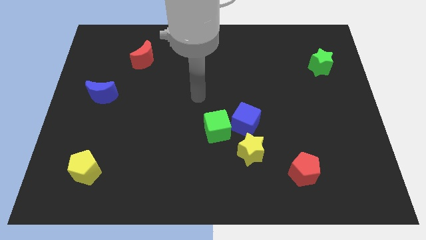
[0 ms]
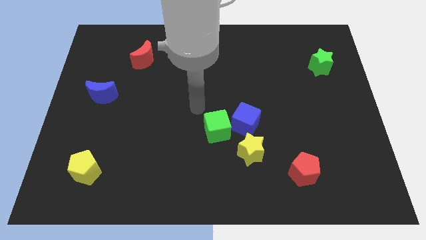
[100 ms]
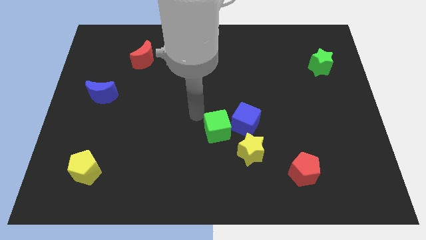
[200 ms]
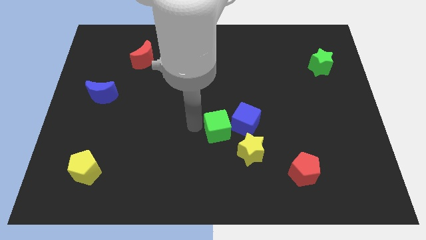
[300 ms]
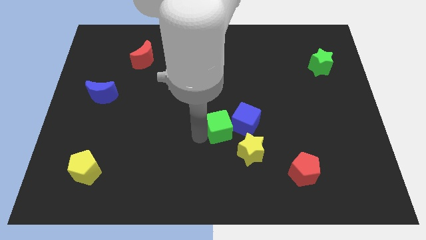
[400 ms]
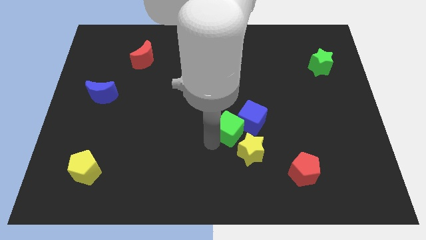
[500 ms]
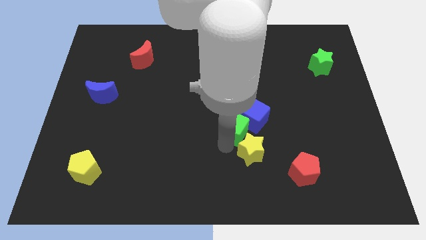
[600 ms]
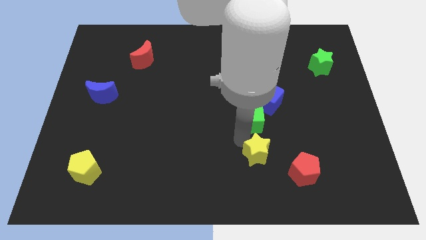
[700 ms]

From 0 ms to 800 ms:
separate the blue cube from the green cube and yellow star

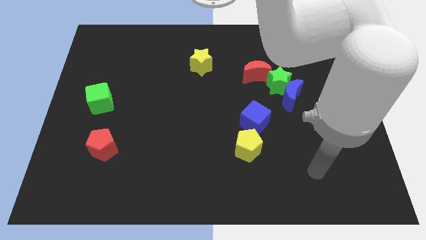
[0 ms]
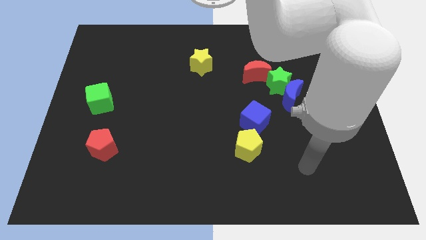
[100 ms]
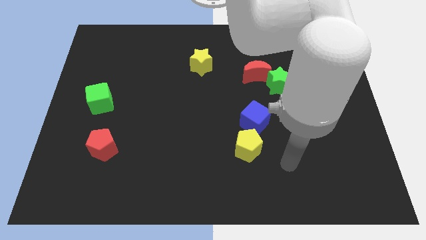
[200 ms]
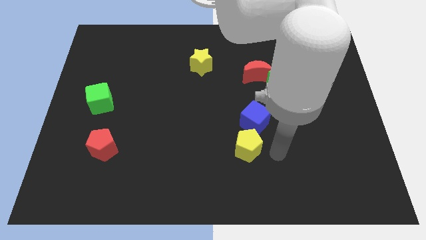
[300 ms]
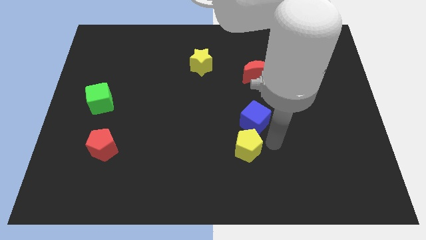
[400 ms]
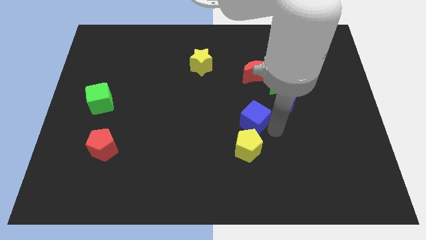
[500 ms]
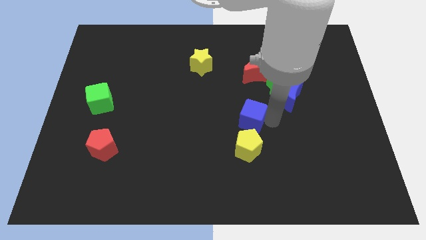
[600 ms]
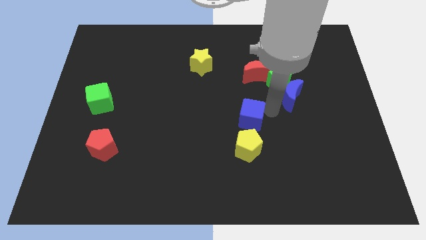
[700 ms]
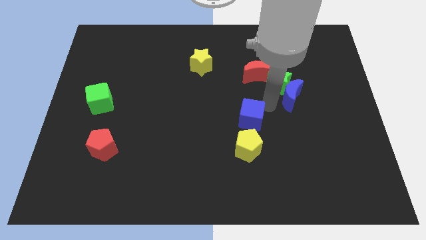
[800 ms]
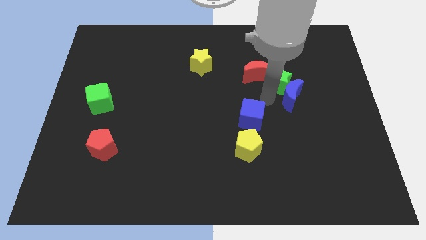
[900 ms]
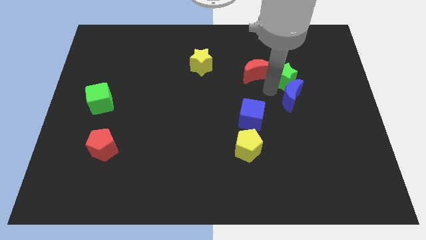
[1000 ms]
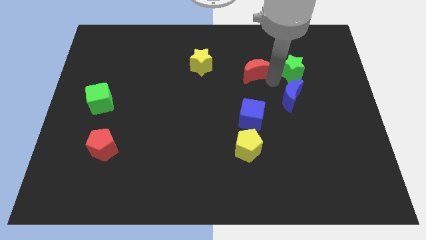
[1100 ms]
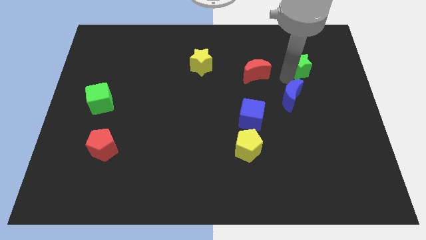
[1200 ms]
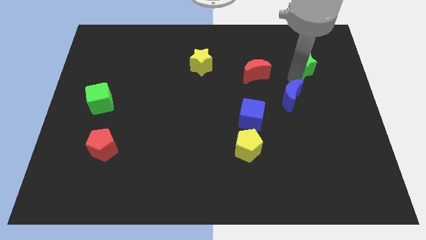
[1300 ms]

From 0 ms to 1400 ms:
move the blue moon away from the green star

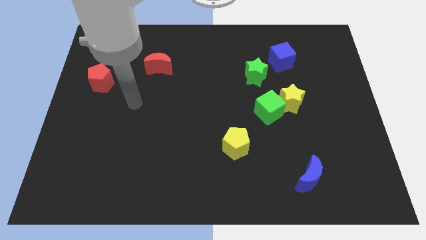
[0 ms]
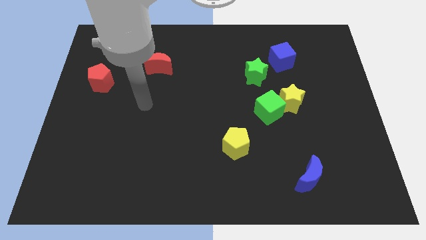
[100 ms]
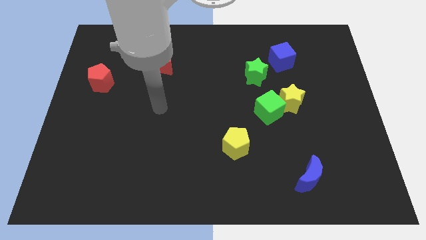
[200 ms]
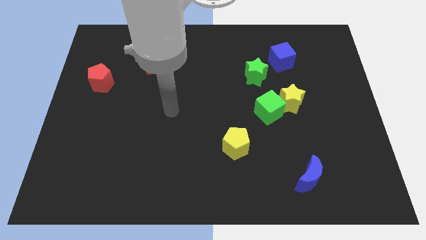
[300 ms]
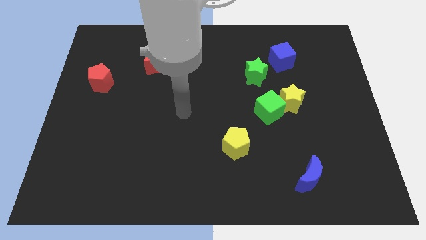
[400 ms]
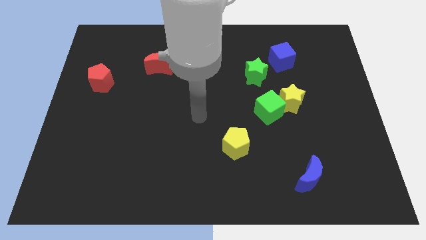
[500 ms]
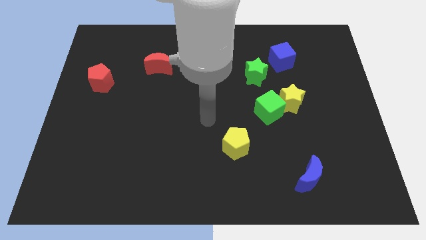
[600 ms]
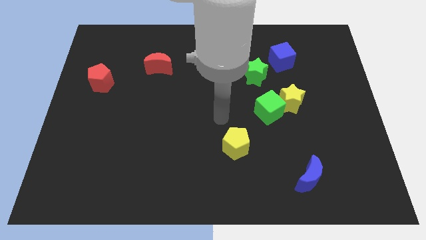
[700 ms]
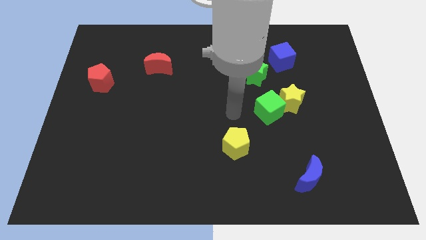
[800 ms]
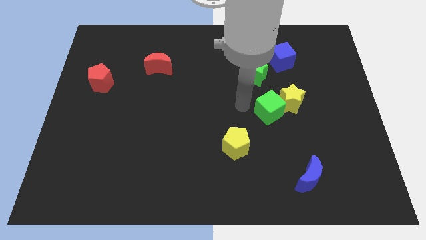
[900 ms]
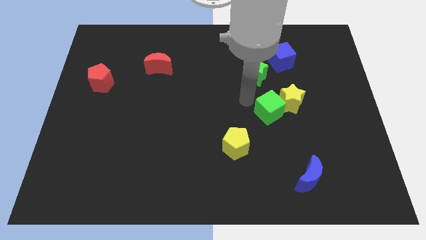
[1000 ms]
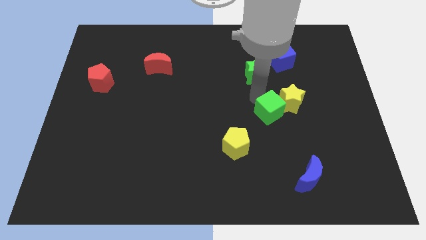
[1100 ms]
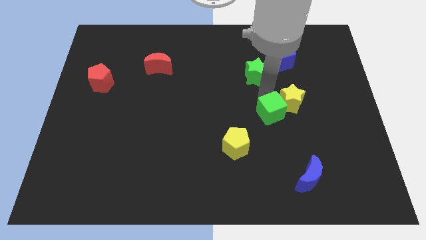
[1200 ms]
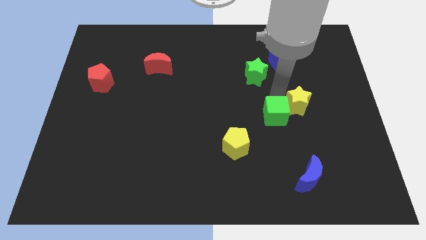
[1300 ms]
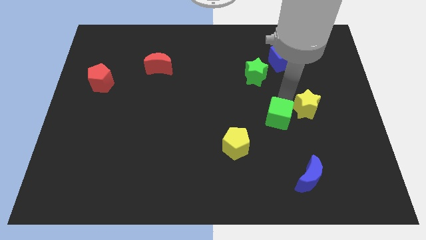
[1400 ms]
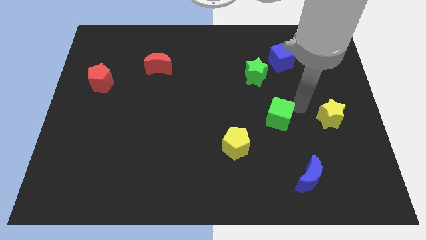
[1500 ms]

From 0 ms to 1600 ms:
pull the green cube apart from the yellow star

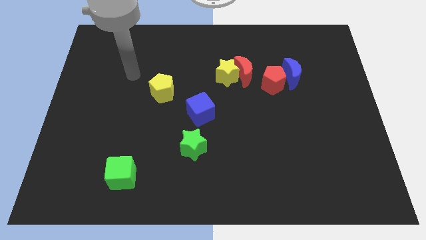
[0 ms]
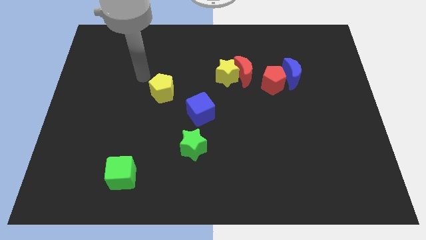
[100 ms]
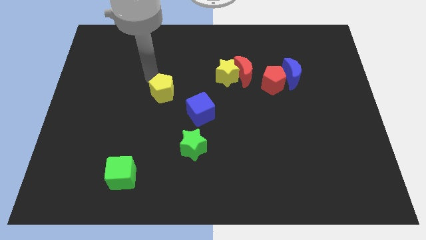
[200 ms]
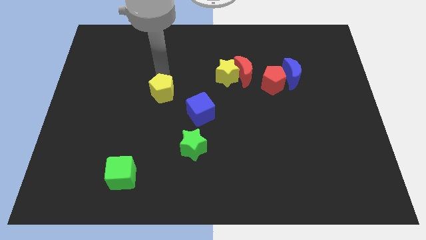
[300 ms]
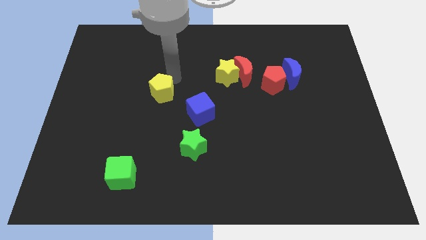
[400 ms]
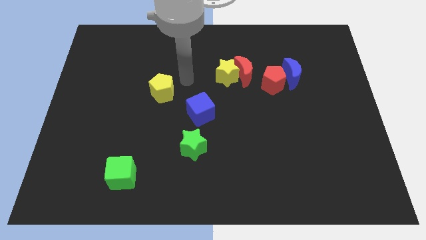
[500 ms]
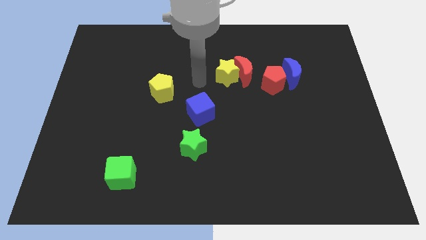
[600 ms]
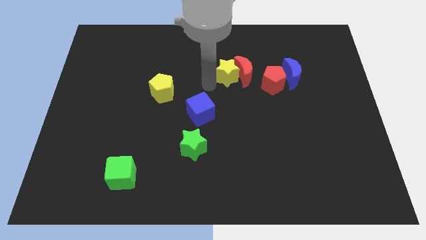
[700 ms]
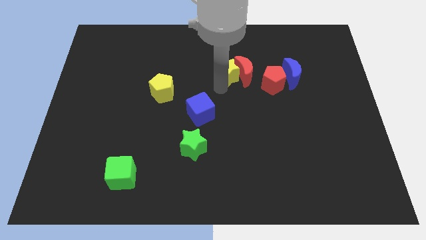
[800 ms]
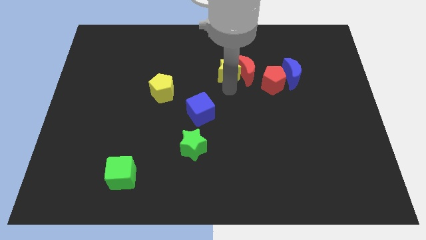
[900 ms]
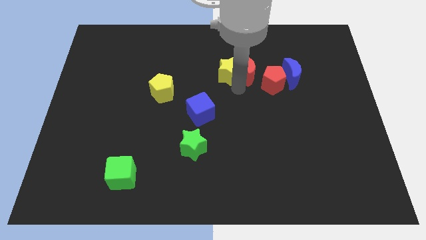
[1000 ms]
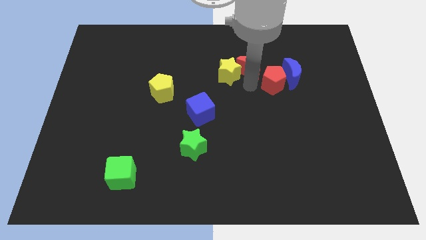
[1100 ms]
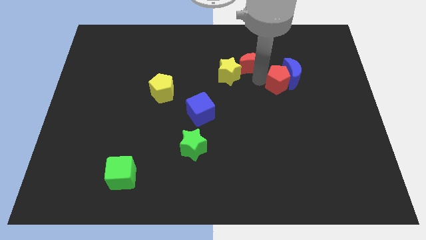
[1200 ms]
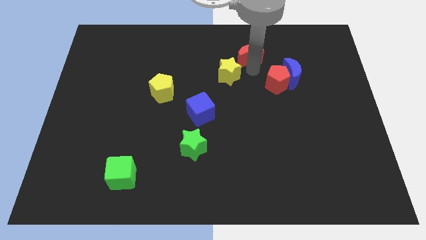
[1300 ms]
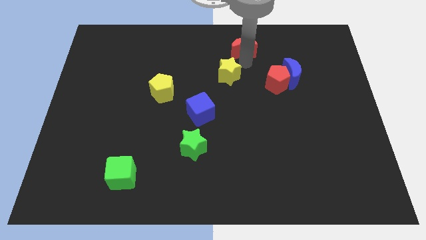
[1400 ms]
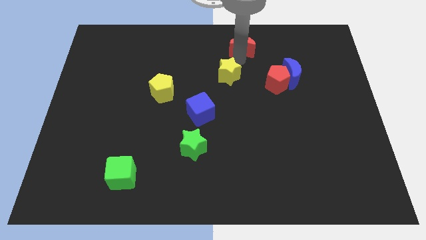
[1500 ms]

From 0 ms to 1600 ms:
separate the yellow star from the red moon

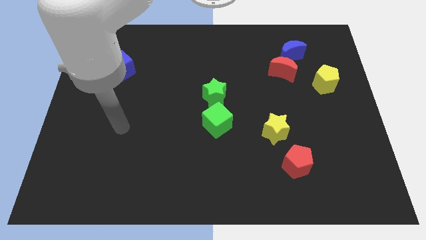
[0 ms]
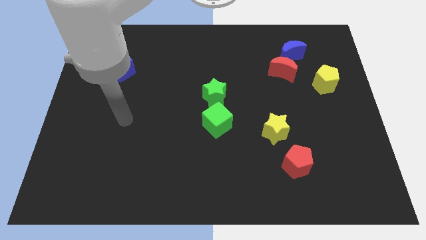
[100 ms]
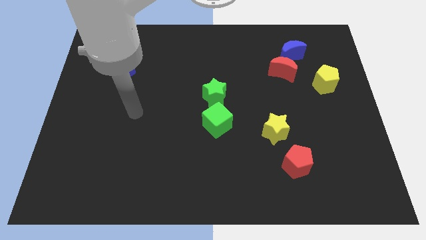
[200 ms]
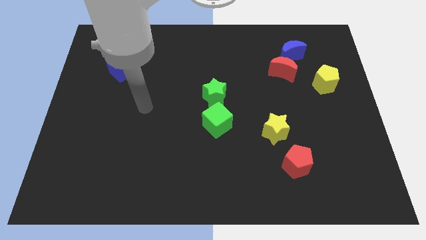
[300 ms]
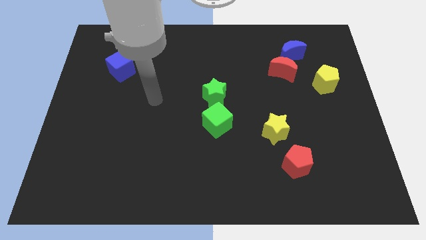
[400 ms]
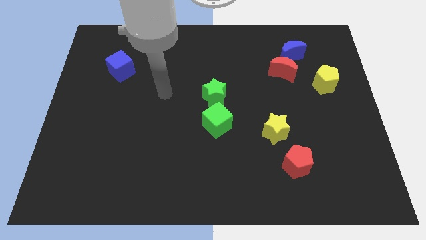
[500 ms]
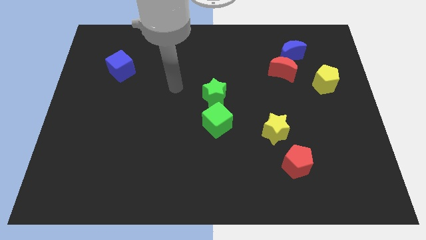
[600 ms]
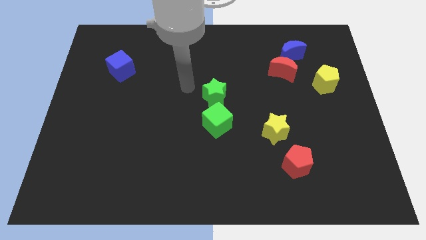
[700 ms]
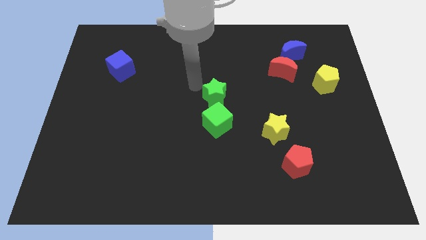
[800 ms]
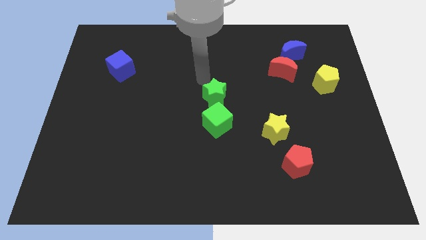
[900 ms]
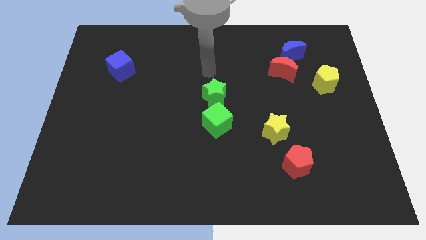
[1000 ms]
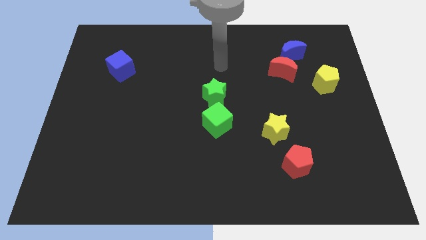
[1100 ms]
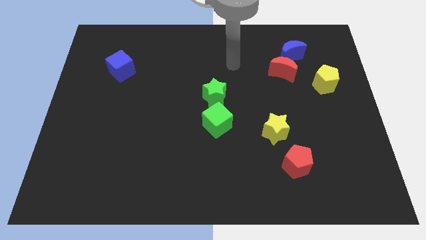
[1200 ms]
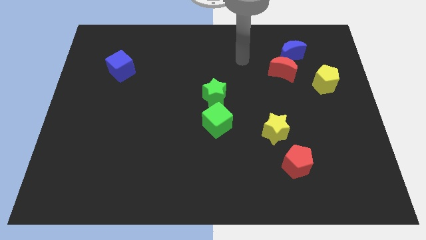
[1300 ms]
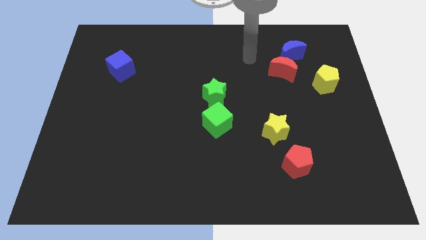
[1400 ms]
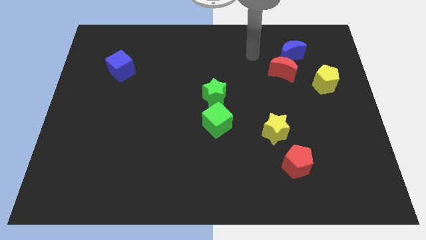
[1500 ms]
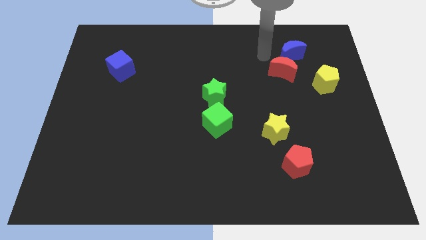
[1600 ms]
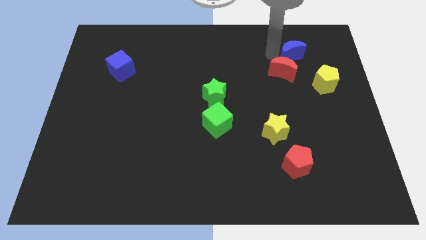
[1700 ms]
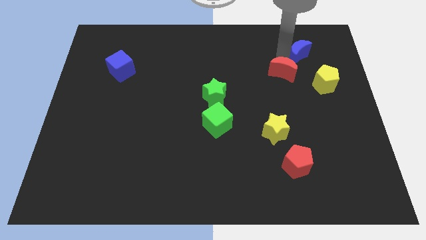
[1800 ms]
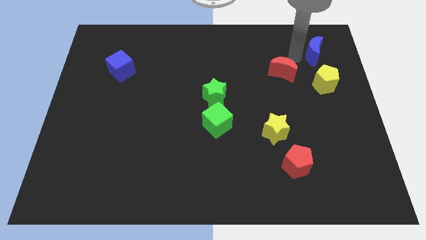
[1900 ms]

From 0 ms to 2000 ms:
separate the red moon from the blue moon

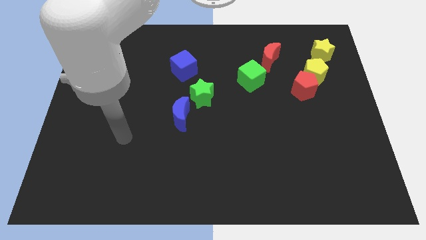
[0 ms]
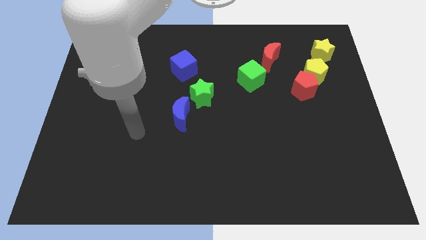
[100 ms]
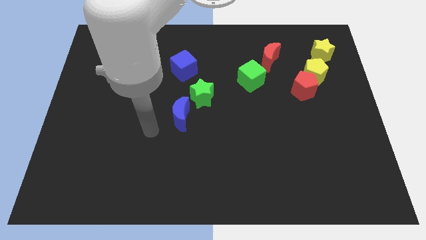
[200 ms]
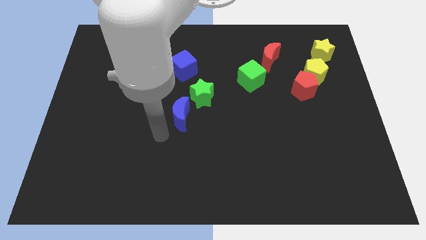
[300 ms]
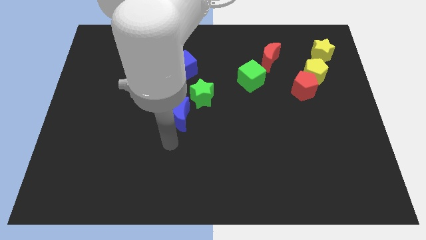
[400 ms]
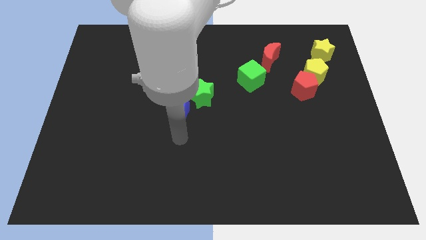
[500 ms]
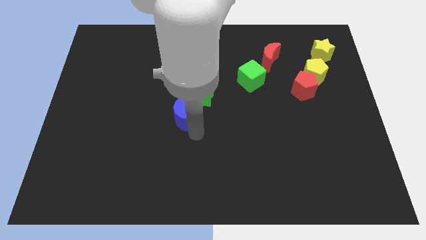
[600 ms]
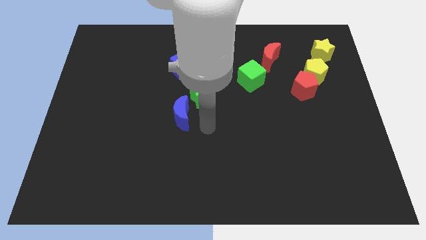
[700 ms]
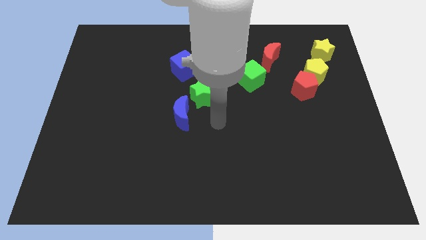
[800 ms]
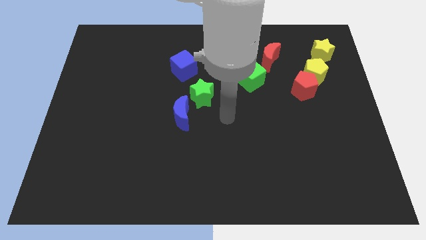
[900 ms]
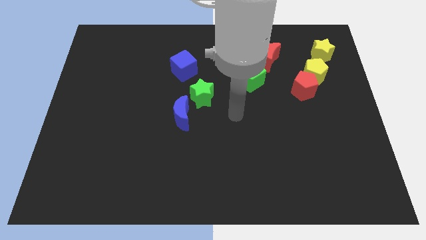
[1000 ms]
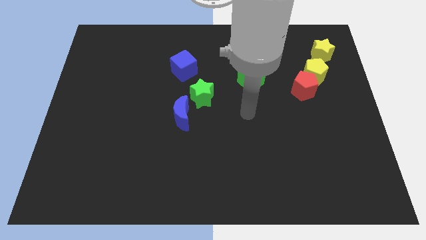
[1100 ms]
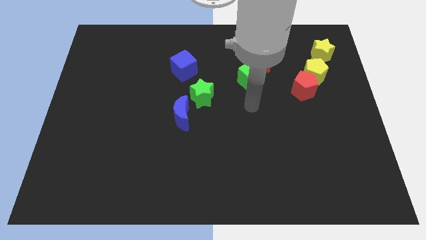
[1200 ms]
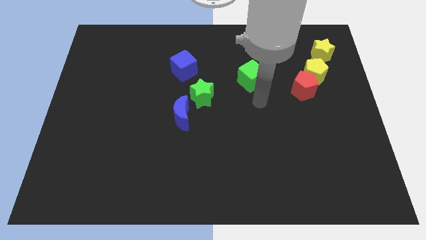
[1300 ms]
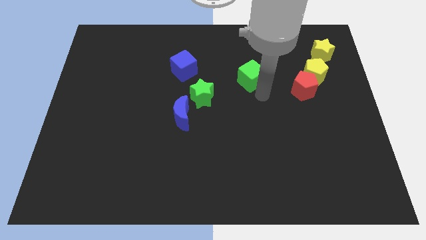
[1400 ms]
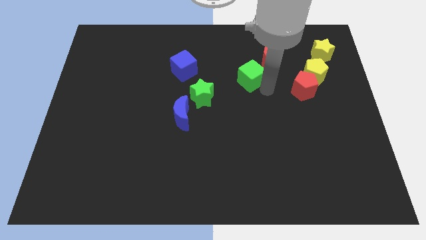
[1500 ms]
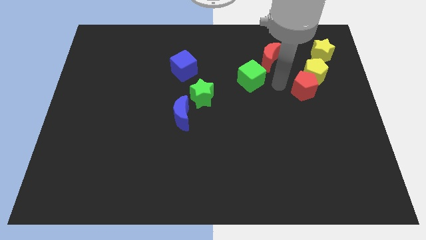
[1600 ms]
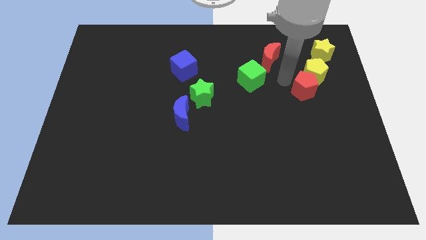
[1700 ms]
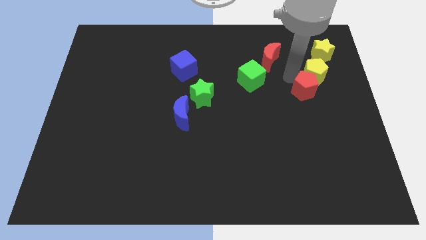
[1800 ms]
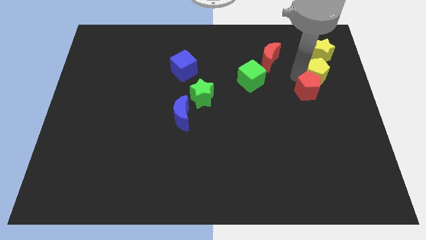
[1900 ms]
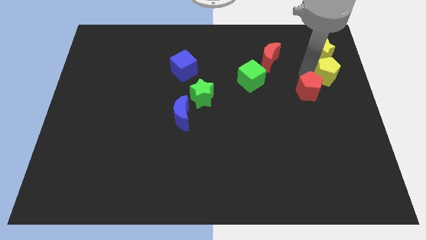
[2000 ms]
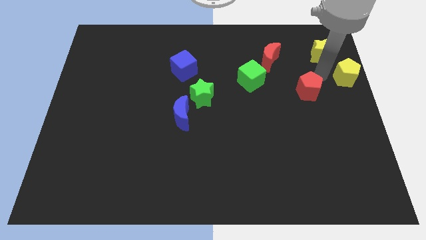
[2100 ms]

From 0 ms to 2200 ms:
move the red pentagon away from the yellow pentagon
